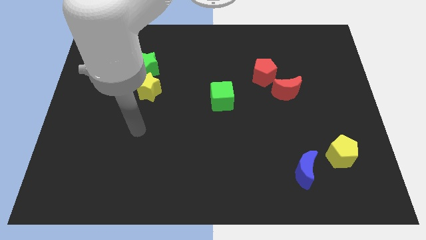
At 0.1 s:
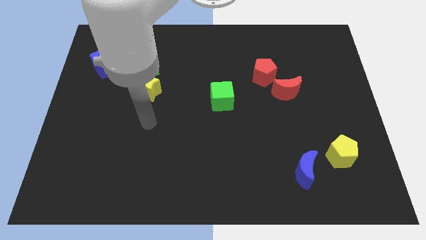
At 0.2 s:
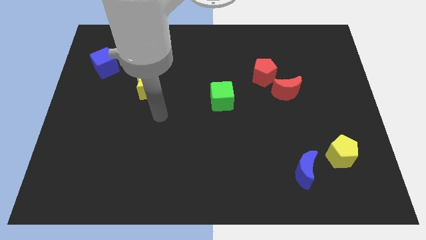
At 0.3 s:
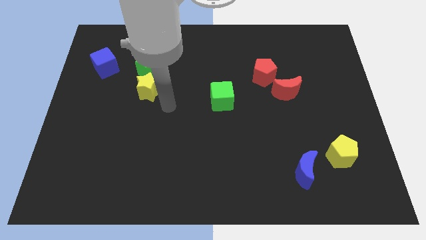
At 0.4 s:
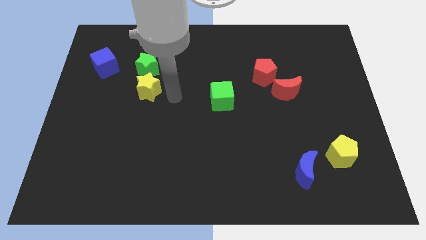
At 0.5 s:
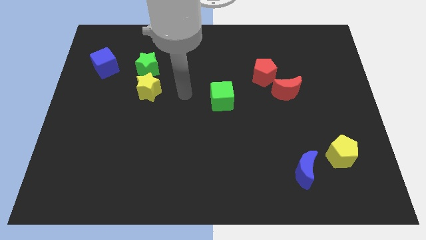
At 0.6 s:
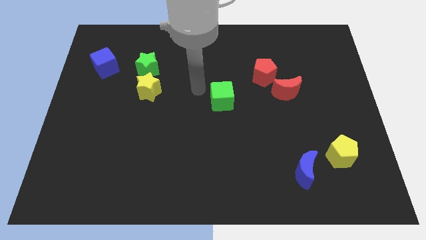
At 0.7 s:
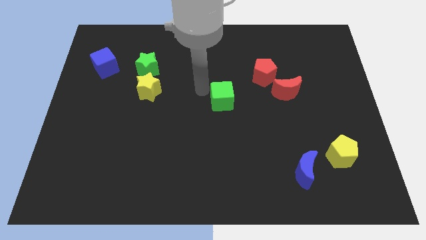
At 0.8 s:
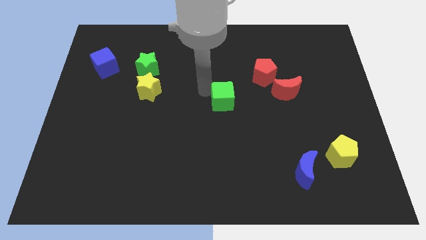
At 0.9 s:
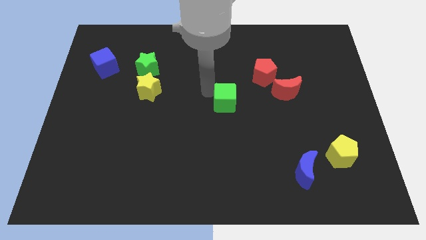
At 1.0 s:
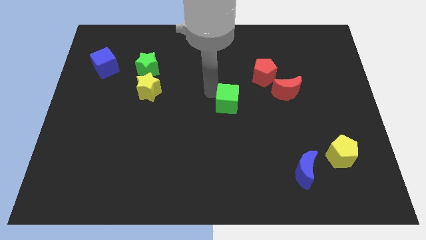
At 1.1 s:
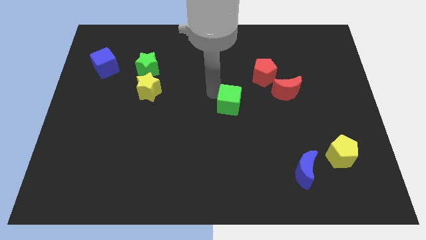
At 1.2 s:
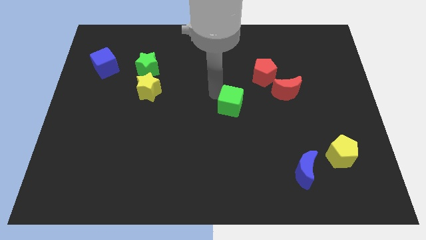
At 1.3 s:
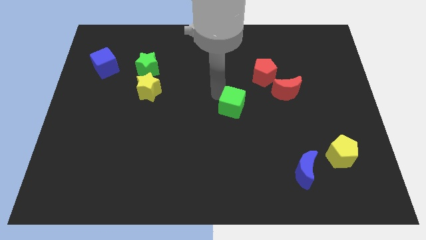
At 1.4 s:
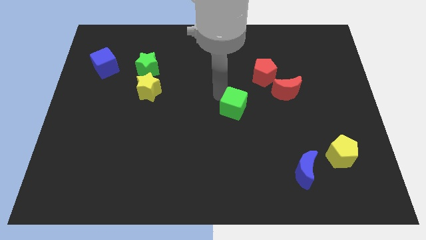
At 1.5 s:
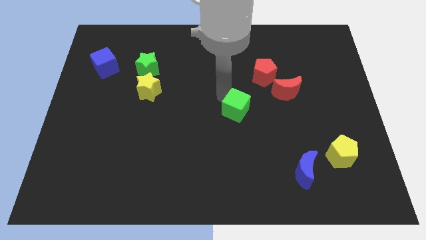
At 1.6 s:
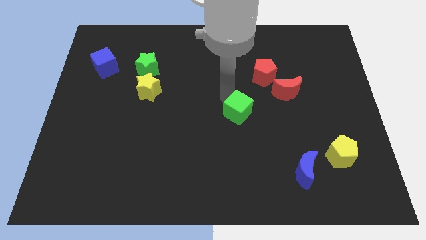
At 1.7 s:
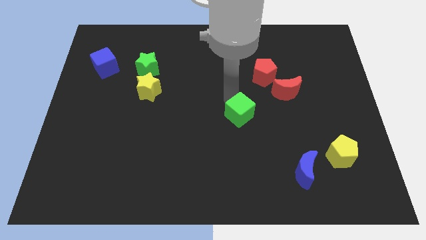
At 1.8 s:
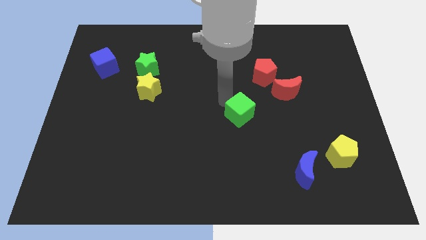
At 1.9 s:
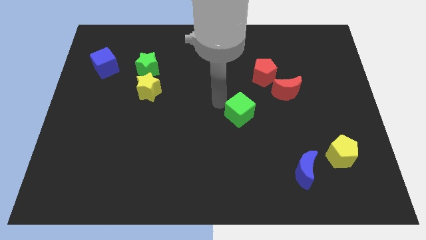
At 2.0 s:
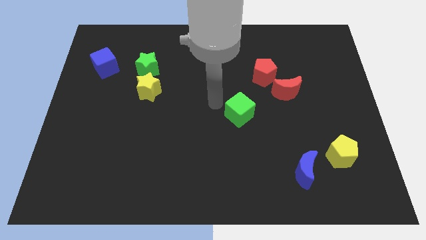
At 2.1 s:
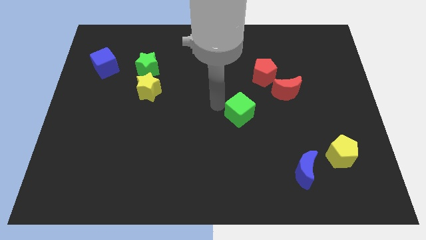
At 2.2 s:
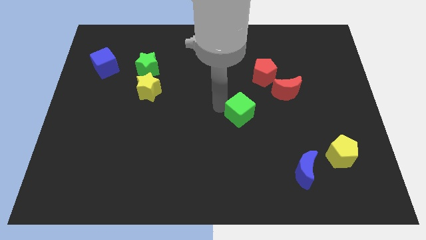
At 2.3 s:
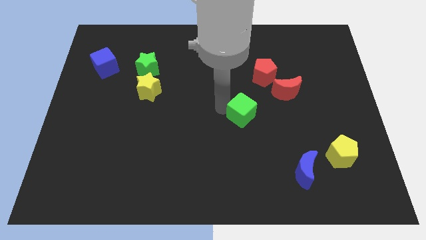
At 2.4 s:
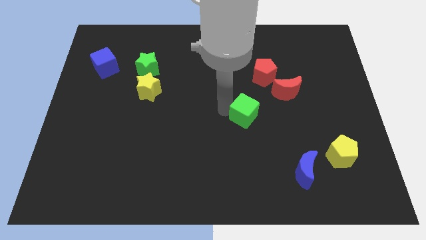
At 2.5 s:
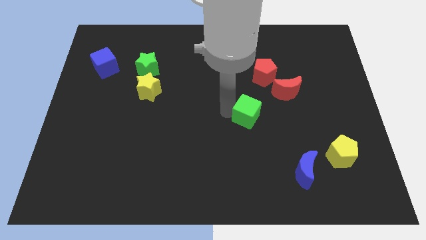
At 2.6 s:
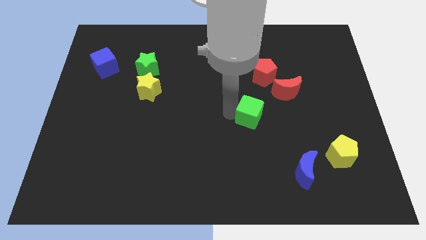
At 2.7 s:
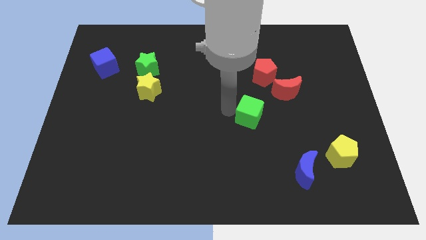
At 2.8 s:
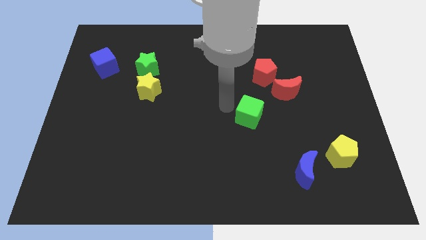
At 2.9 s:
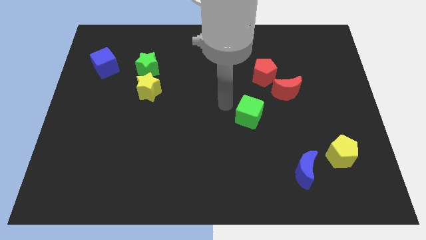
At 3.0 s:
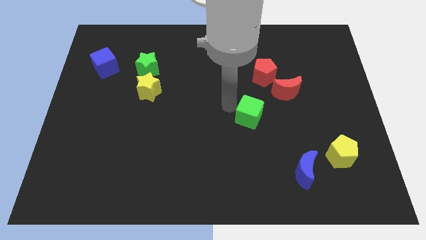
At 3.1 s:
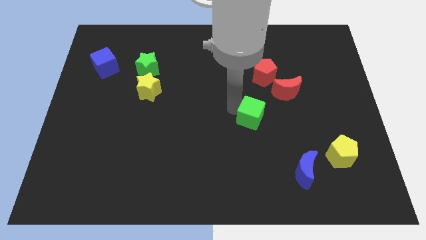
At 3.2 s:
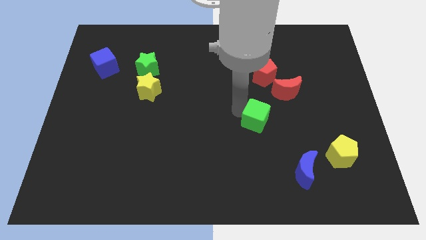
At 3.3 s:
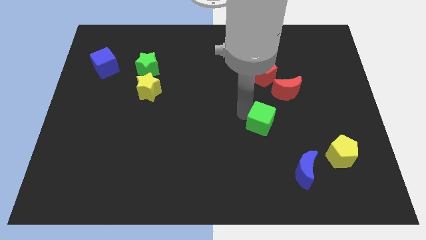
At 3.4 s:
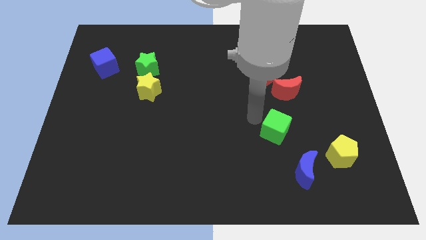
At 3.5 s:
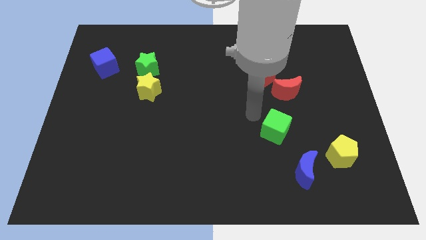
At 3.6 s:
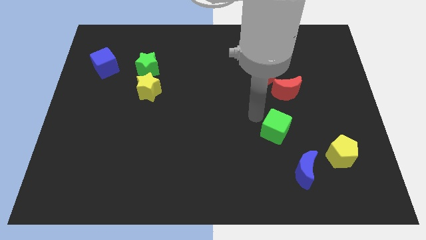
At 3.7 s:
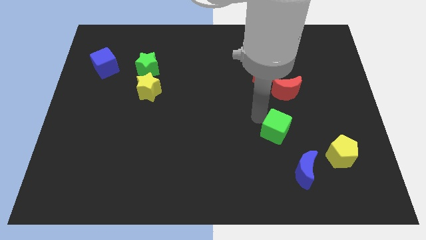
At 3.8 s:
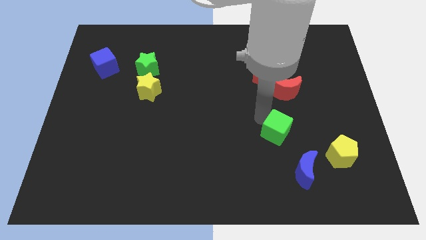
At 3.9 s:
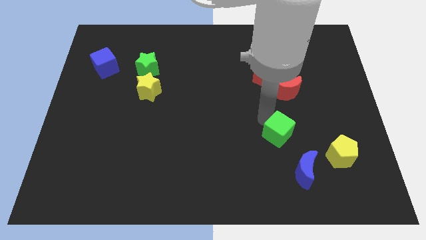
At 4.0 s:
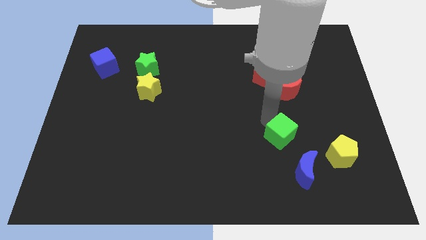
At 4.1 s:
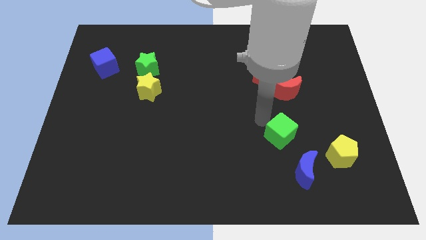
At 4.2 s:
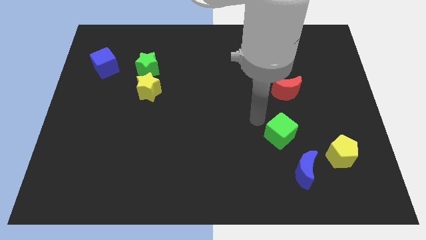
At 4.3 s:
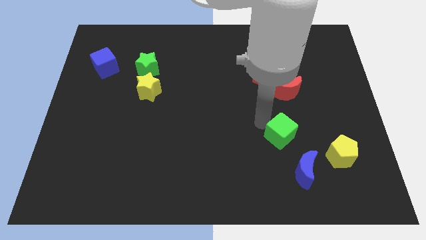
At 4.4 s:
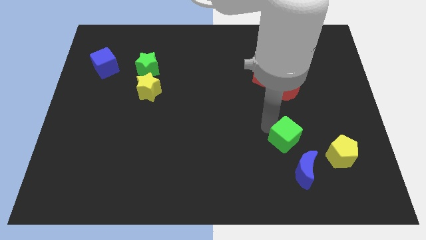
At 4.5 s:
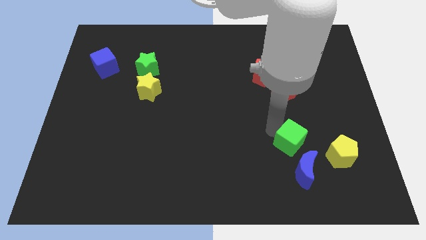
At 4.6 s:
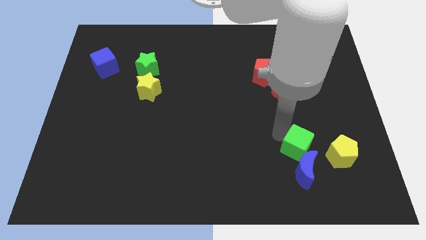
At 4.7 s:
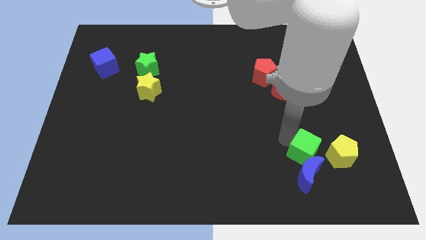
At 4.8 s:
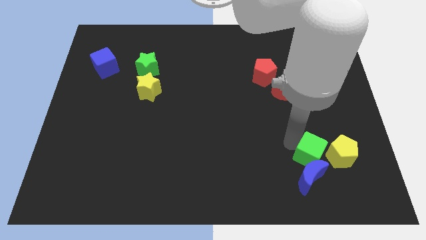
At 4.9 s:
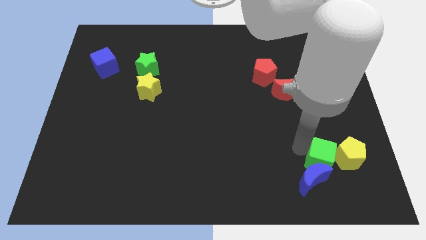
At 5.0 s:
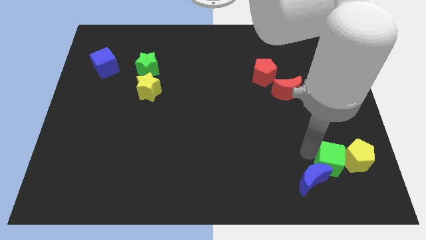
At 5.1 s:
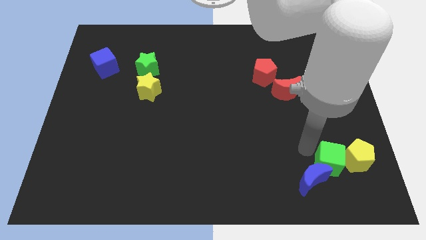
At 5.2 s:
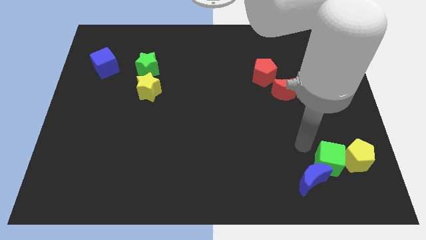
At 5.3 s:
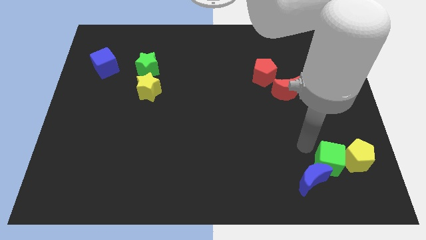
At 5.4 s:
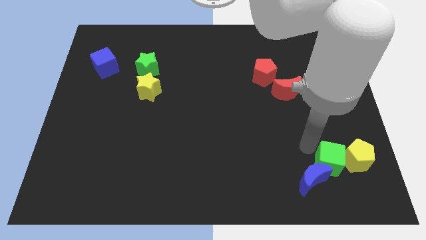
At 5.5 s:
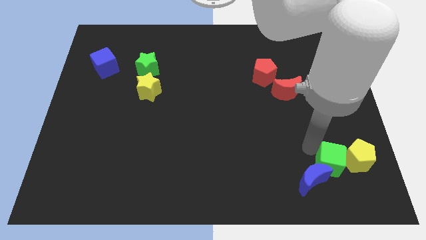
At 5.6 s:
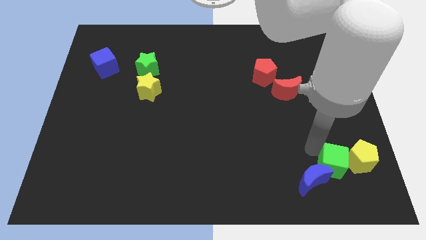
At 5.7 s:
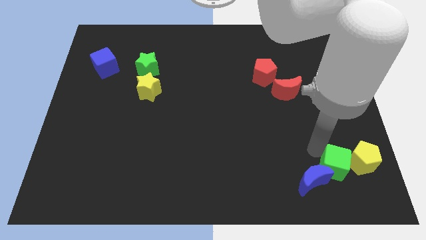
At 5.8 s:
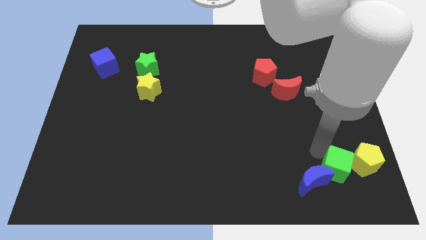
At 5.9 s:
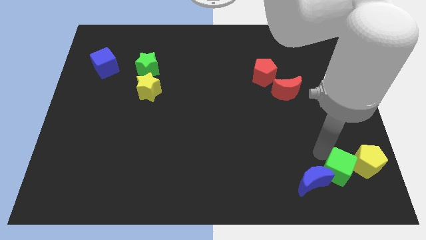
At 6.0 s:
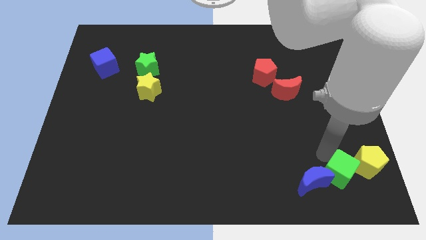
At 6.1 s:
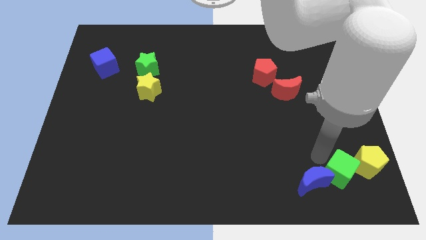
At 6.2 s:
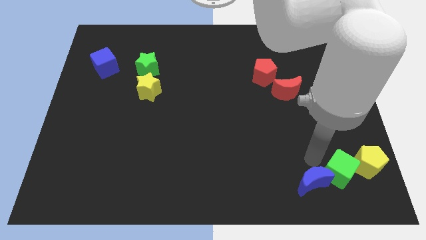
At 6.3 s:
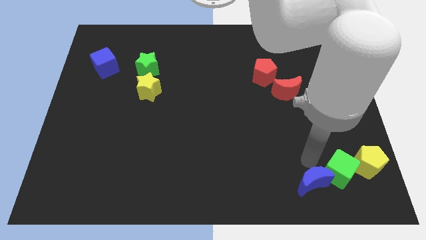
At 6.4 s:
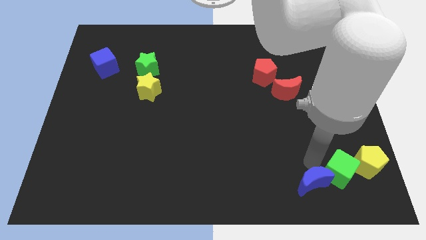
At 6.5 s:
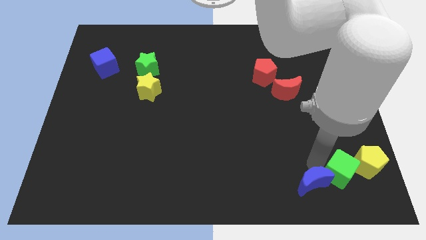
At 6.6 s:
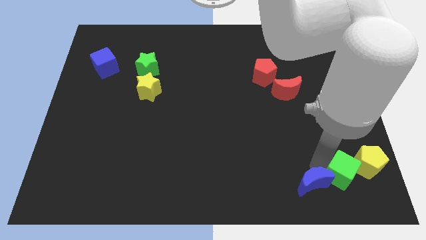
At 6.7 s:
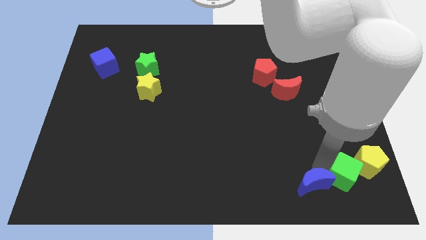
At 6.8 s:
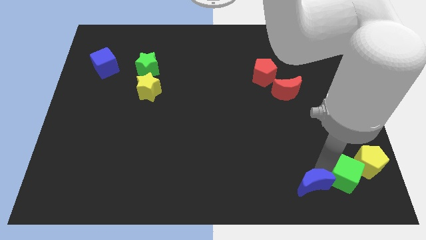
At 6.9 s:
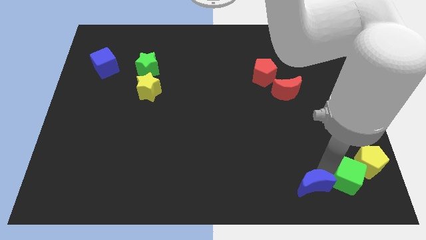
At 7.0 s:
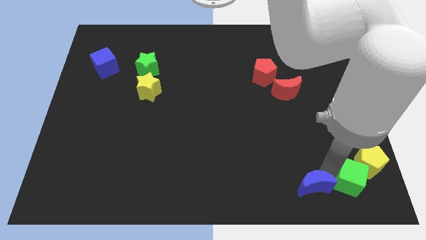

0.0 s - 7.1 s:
push the green cube to the lower right corner
